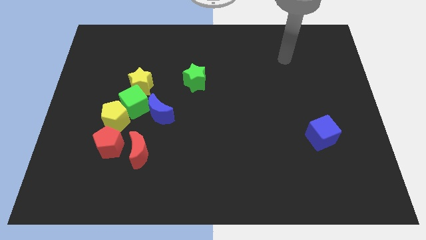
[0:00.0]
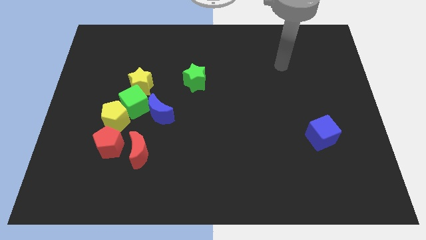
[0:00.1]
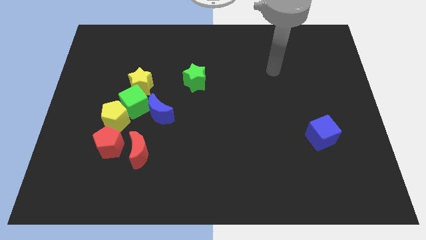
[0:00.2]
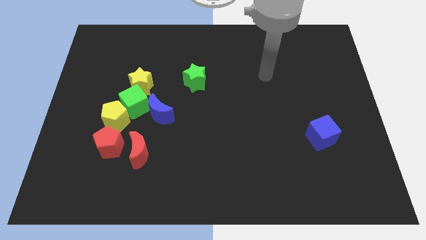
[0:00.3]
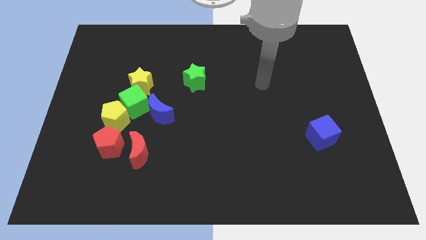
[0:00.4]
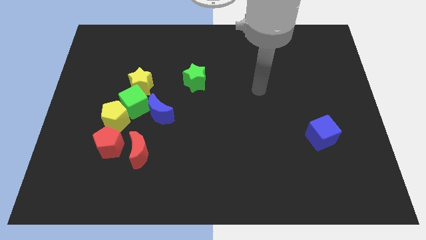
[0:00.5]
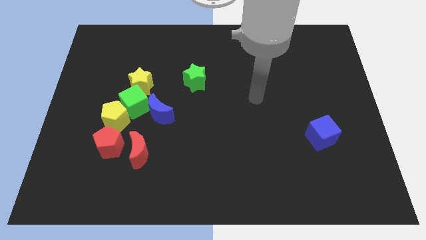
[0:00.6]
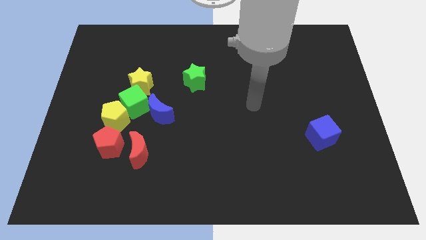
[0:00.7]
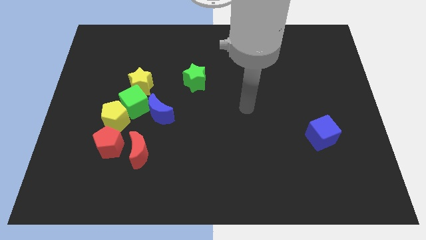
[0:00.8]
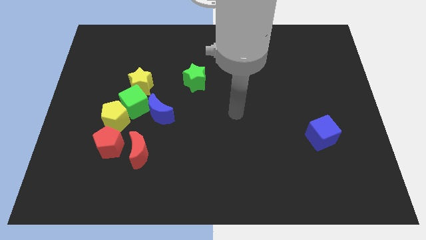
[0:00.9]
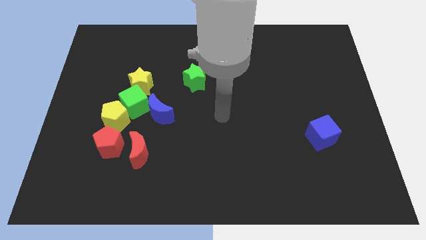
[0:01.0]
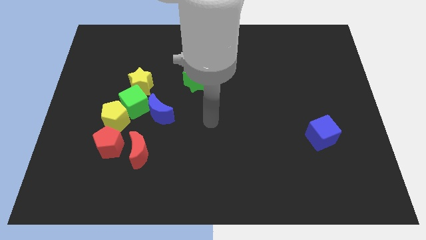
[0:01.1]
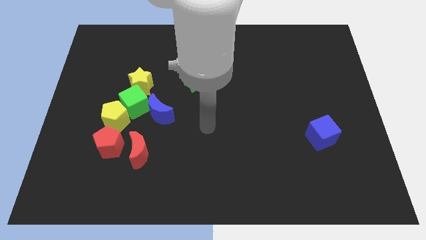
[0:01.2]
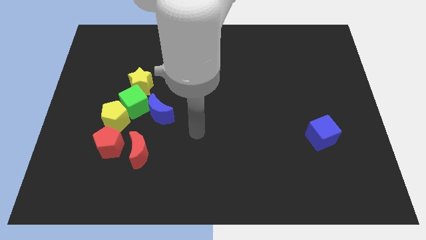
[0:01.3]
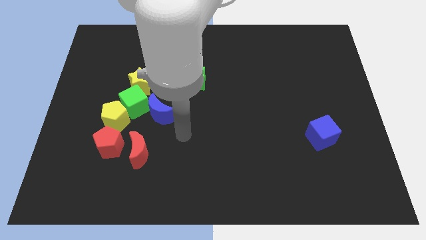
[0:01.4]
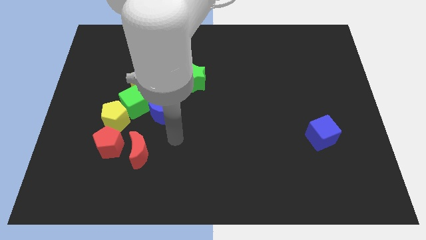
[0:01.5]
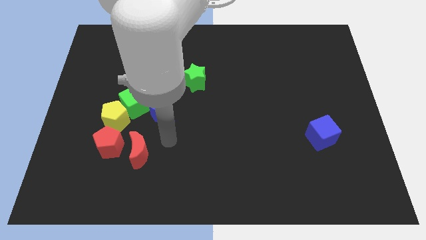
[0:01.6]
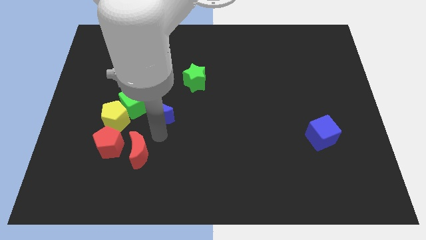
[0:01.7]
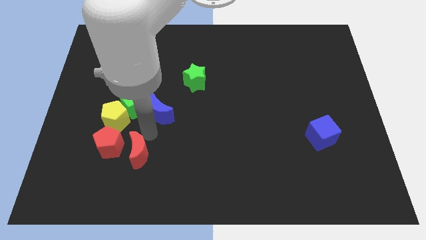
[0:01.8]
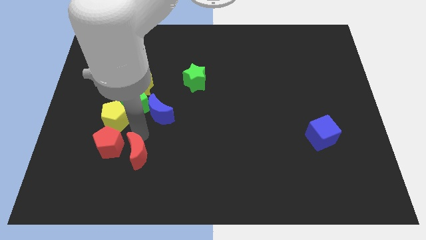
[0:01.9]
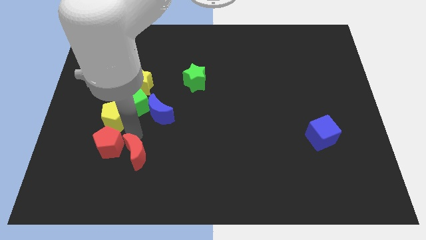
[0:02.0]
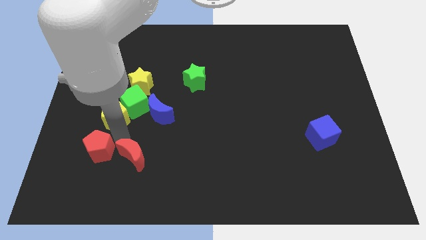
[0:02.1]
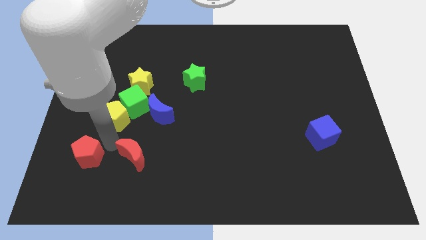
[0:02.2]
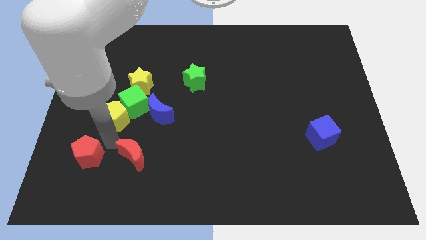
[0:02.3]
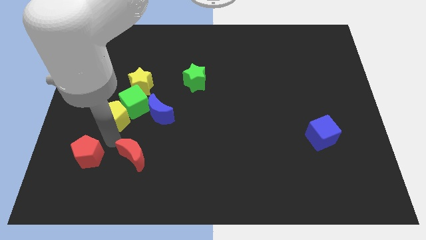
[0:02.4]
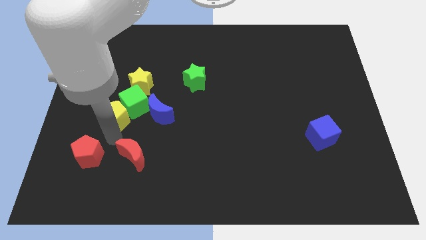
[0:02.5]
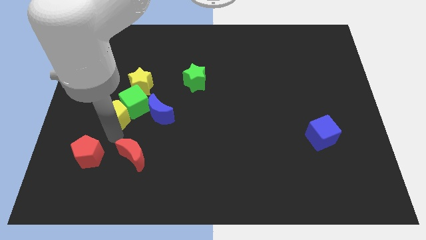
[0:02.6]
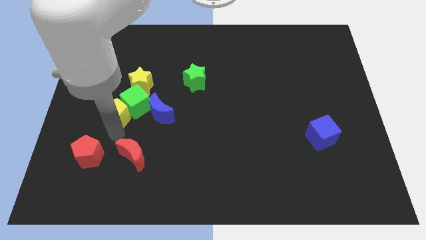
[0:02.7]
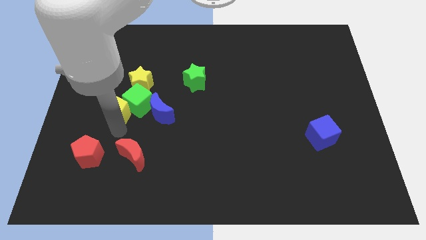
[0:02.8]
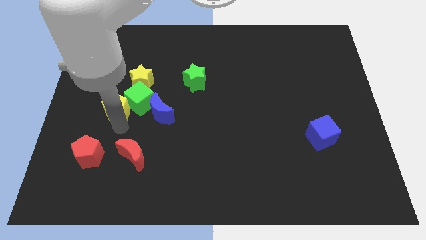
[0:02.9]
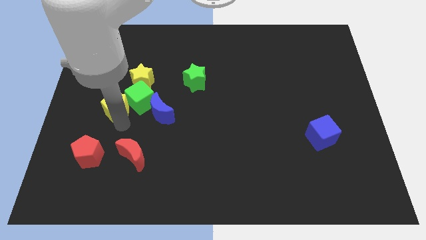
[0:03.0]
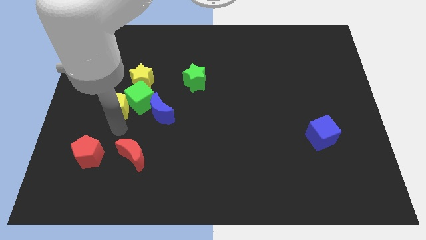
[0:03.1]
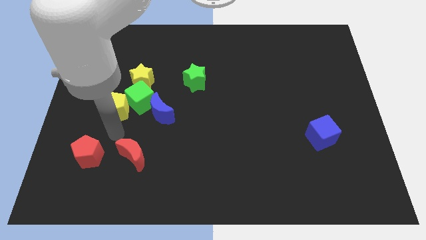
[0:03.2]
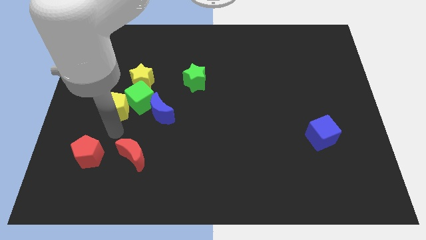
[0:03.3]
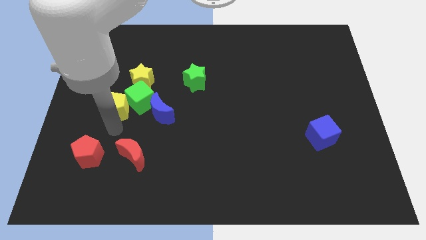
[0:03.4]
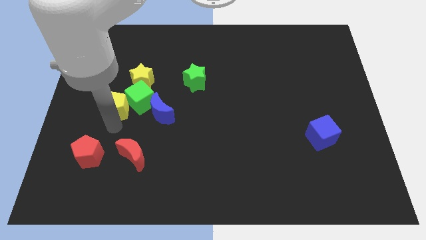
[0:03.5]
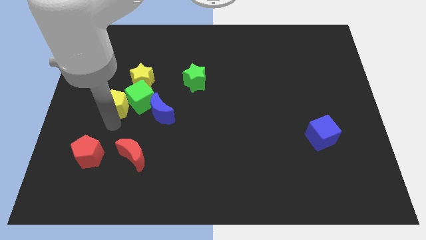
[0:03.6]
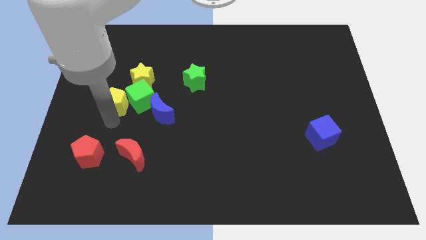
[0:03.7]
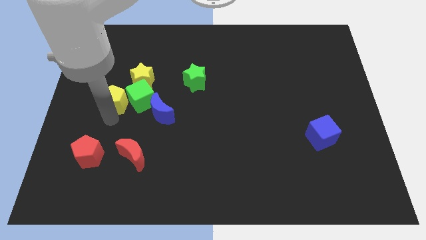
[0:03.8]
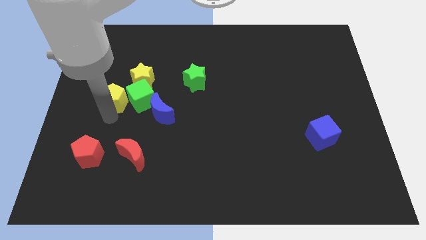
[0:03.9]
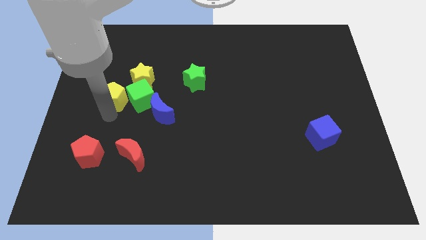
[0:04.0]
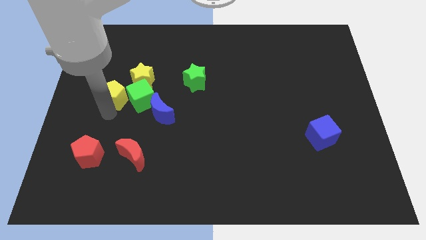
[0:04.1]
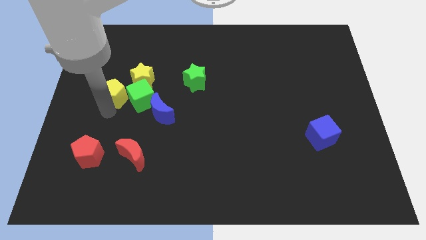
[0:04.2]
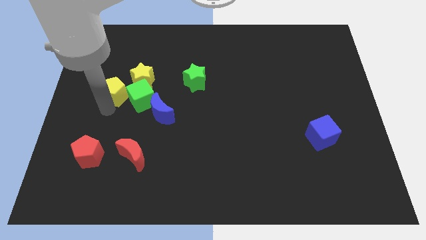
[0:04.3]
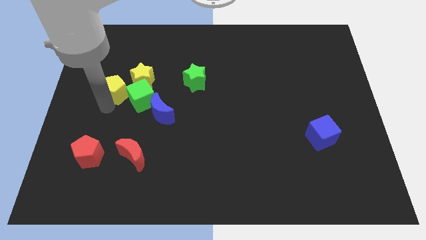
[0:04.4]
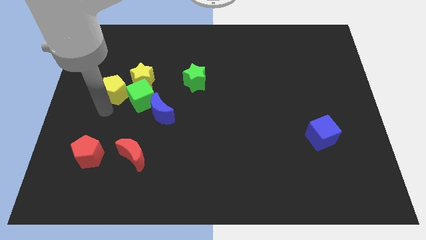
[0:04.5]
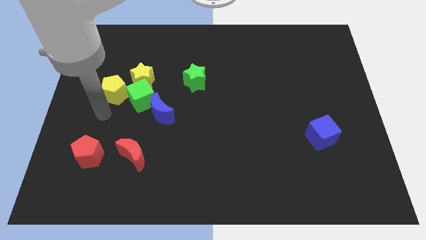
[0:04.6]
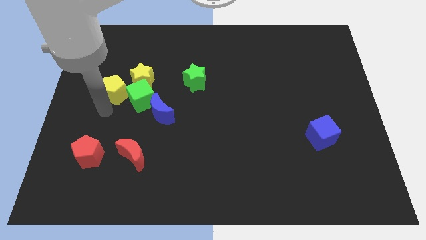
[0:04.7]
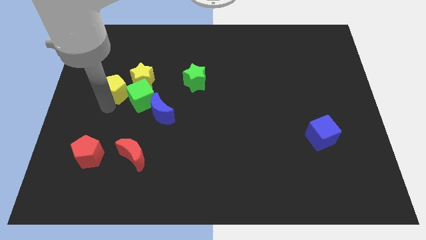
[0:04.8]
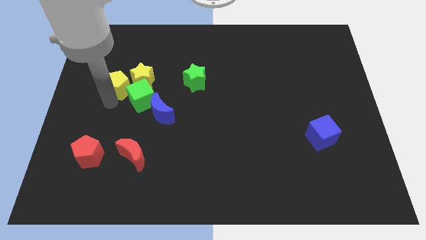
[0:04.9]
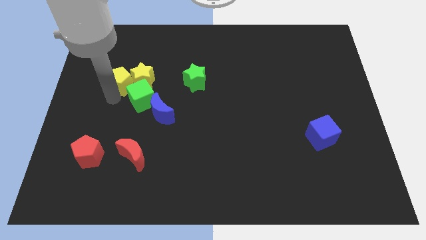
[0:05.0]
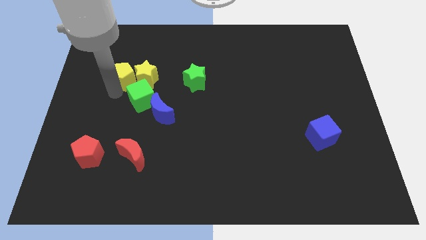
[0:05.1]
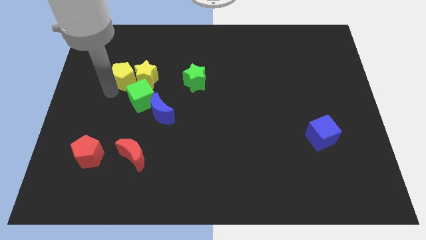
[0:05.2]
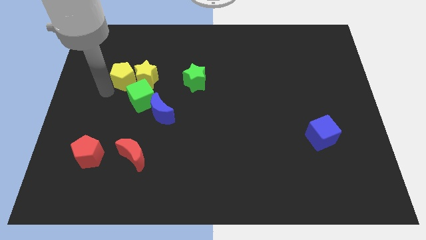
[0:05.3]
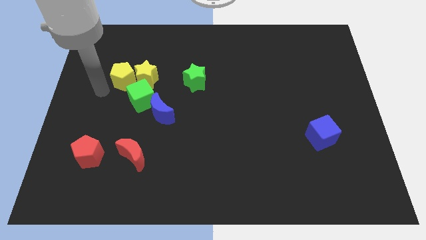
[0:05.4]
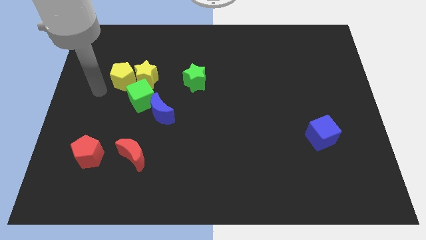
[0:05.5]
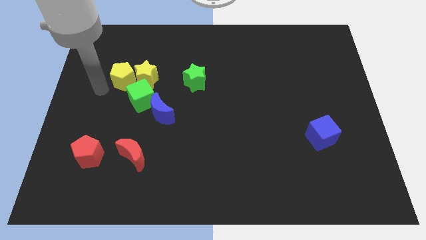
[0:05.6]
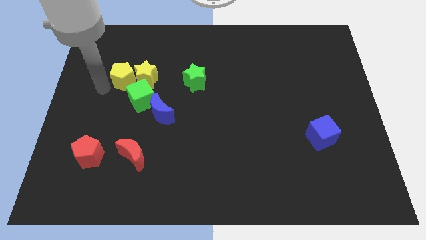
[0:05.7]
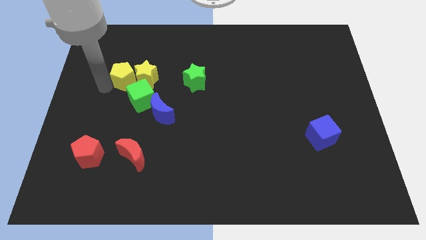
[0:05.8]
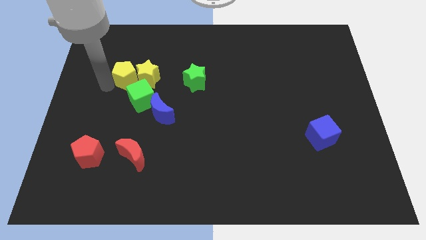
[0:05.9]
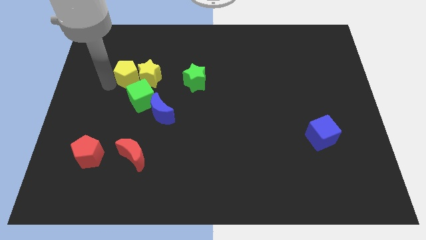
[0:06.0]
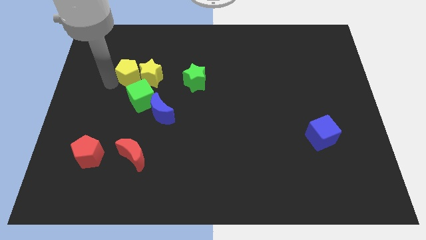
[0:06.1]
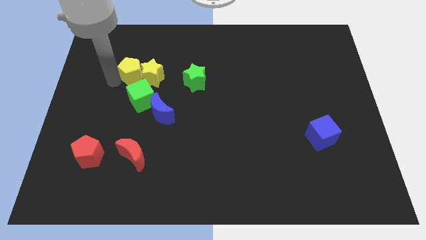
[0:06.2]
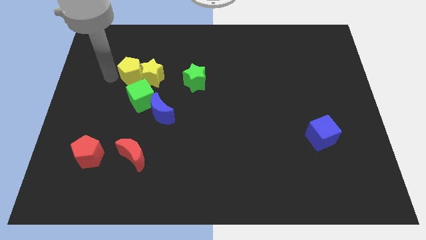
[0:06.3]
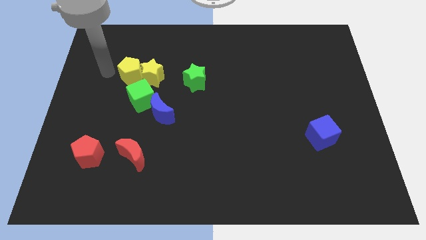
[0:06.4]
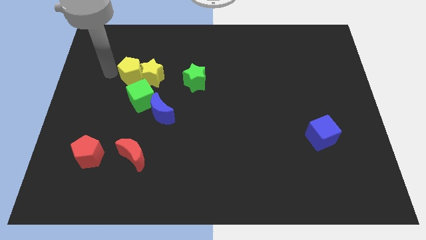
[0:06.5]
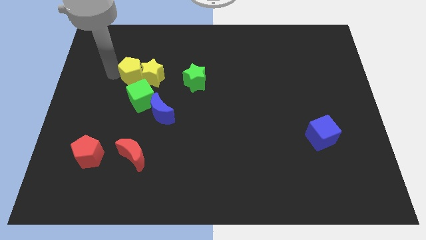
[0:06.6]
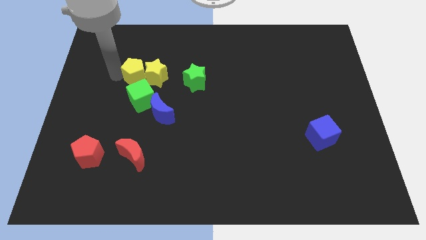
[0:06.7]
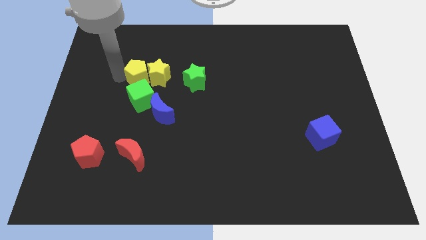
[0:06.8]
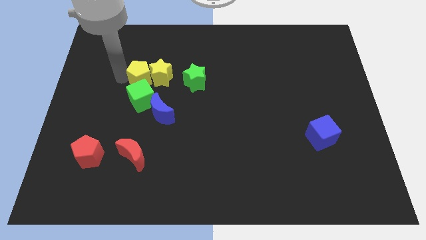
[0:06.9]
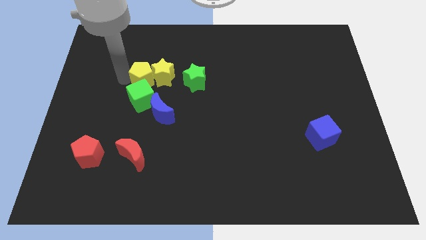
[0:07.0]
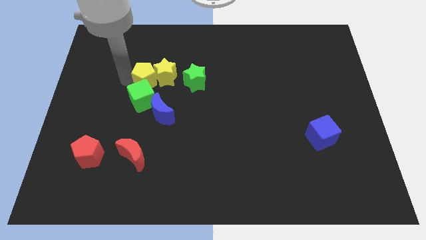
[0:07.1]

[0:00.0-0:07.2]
push the yellow pentagon to the top of the blue moon
